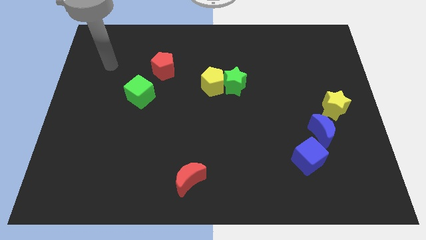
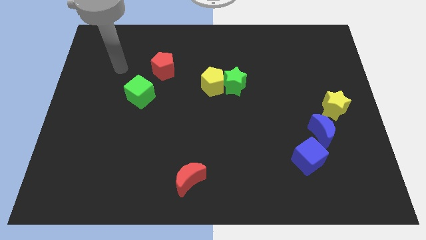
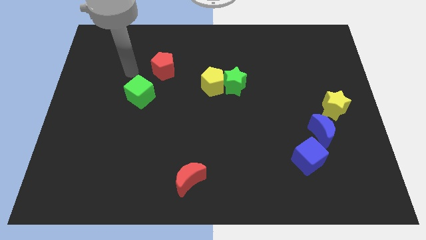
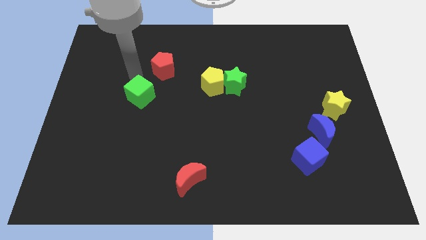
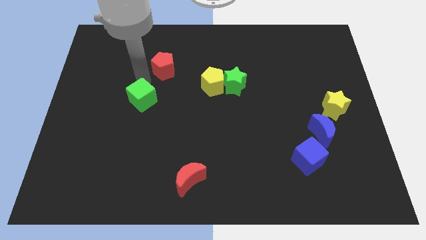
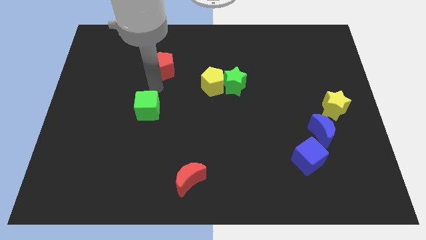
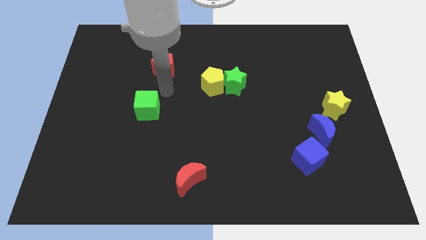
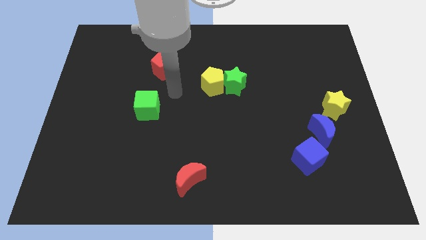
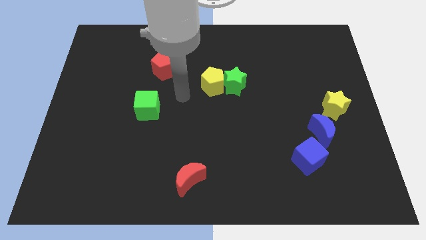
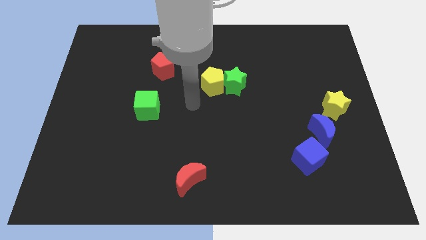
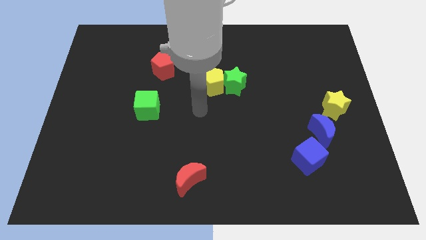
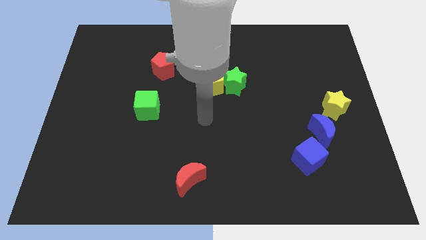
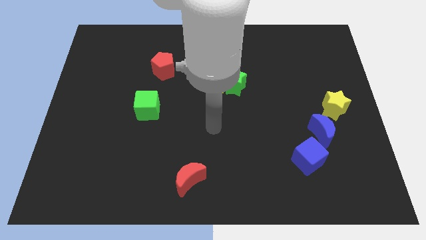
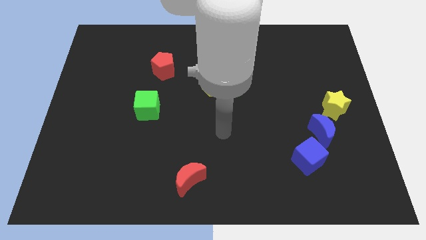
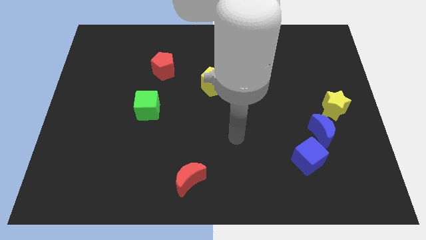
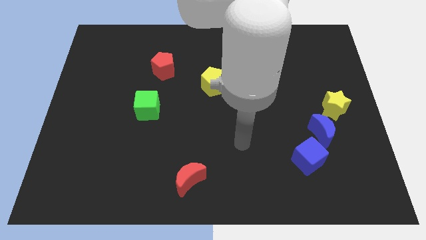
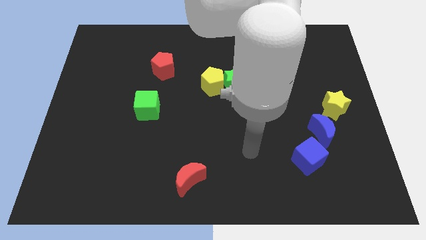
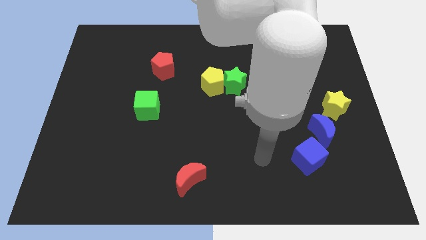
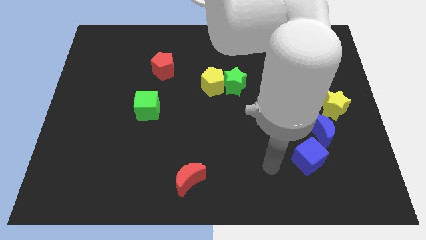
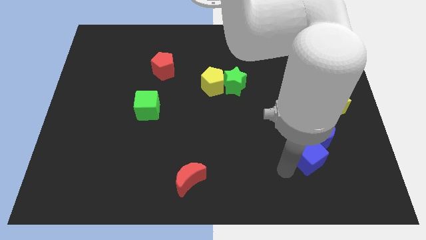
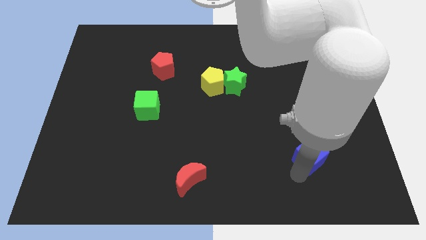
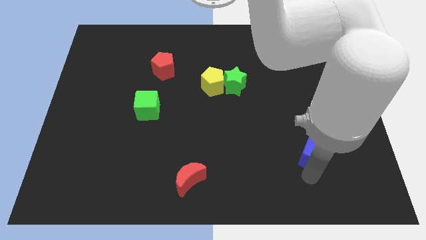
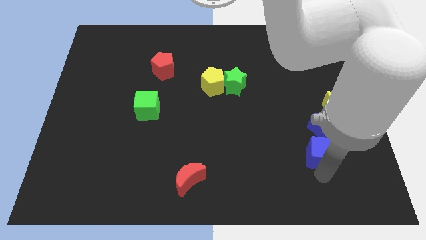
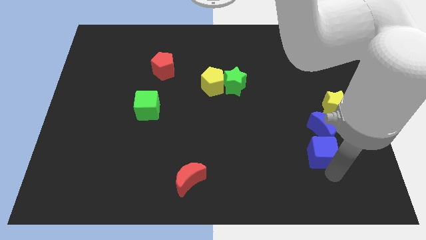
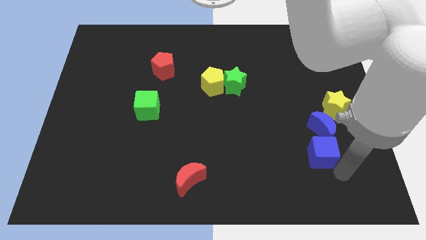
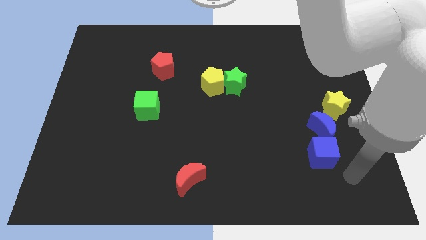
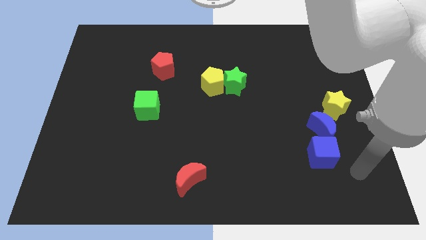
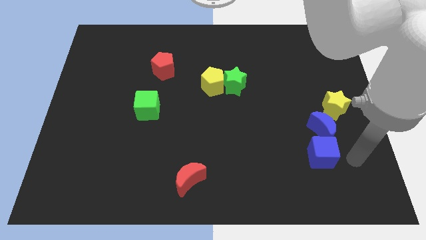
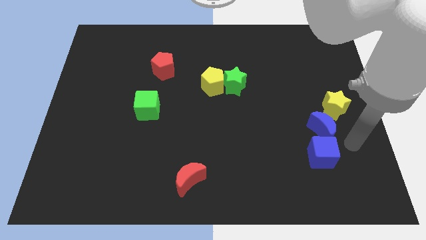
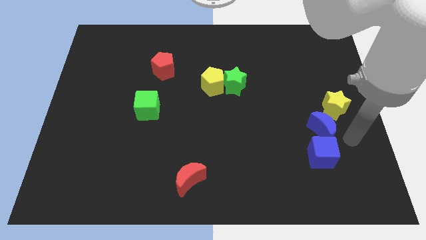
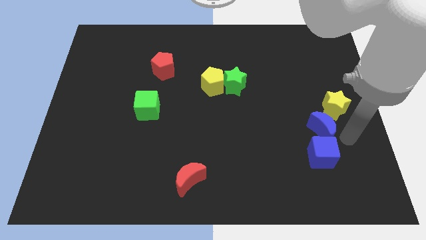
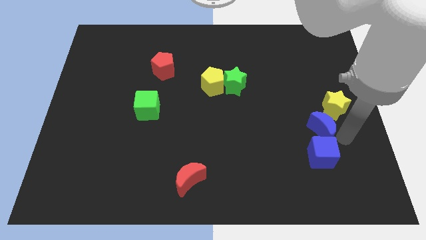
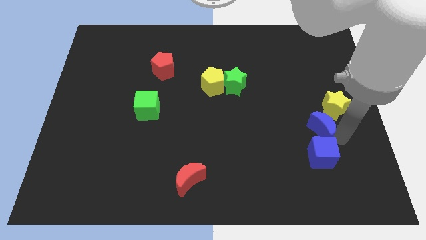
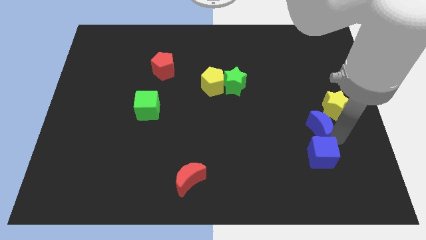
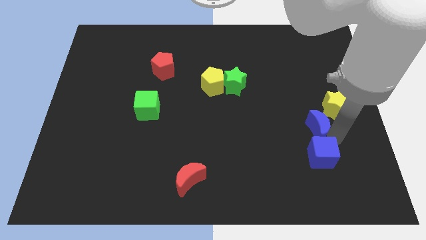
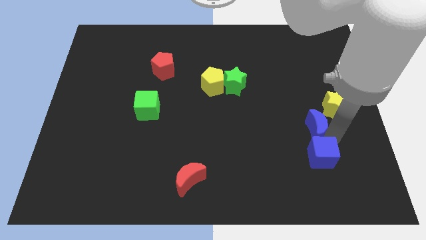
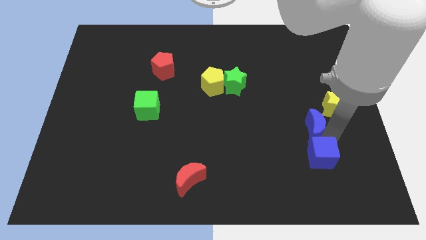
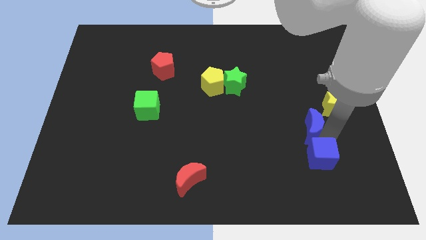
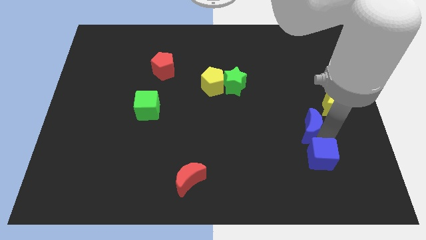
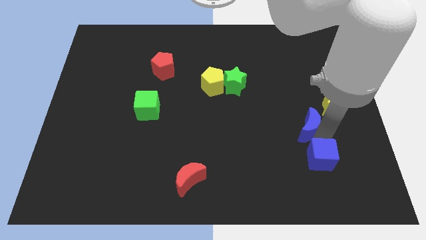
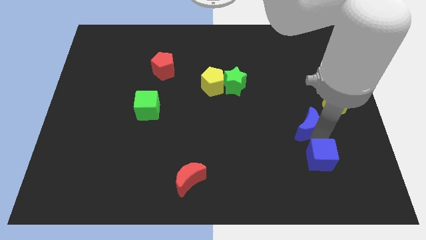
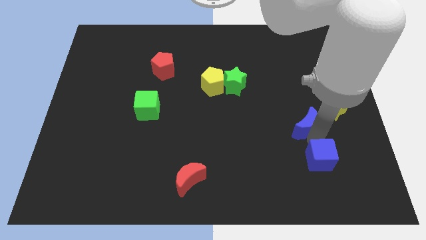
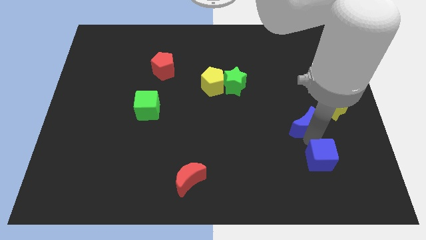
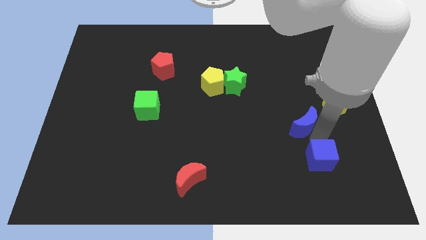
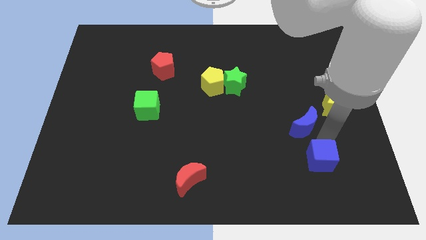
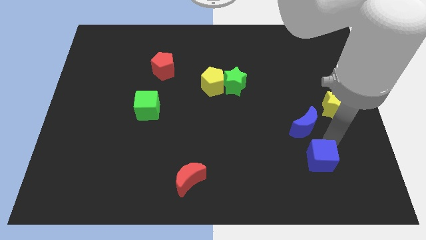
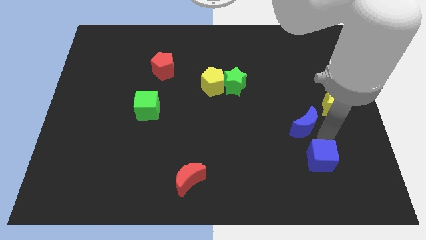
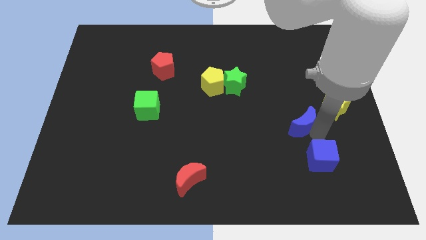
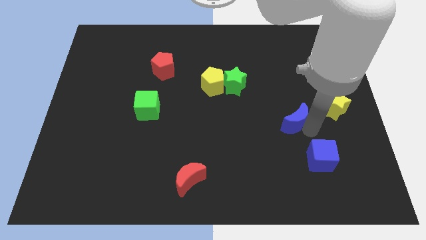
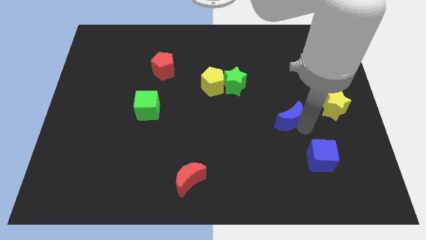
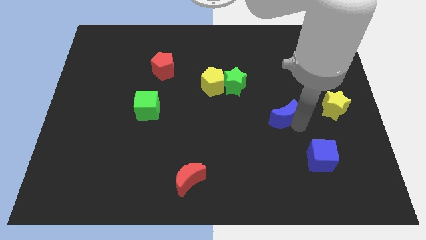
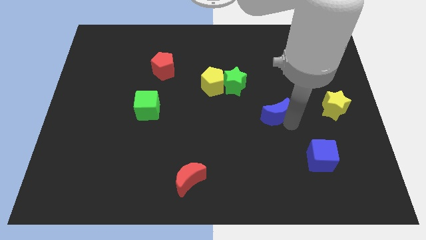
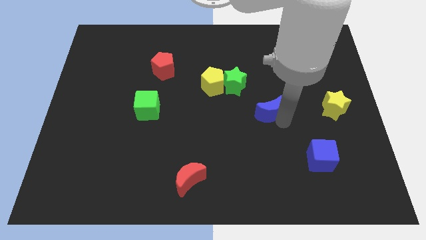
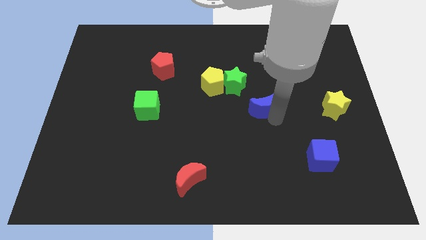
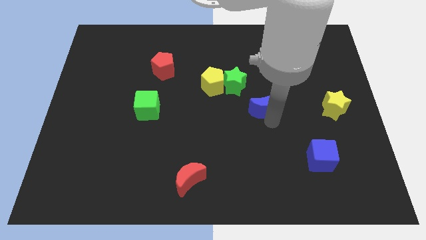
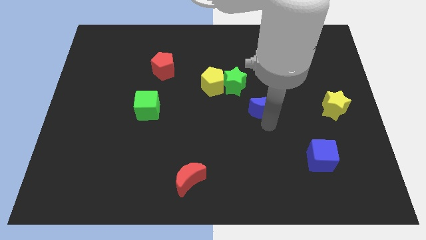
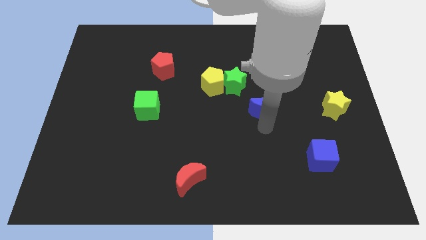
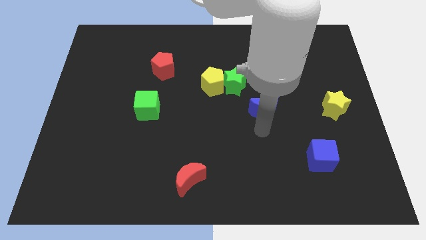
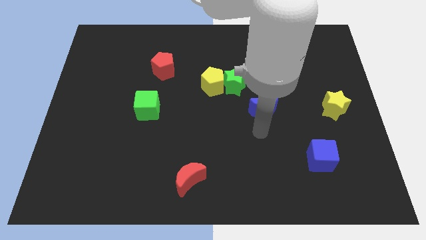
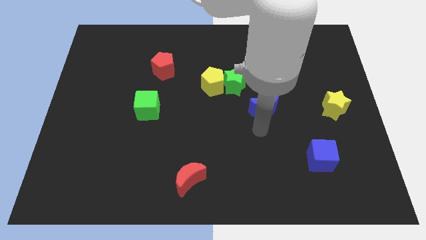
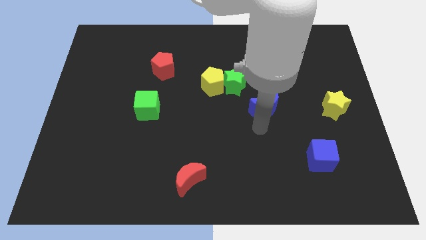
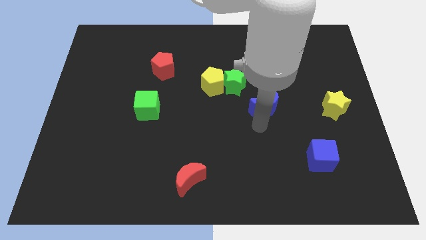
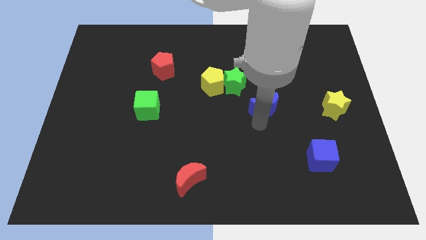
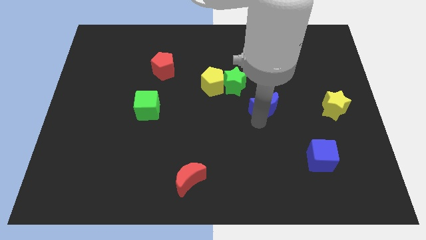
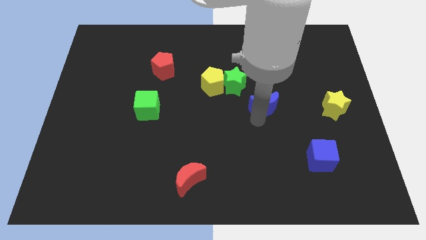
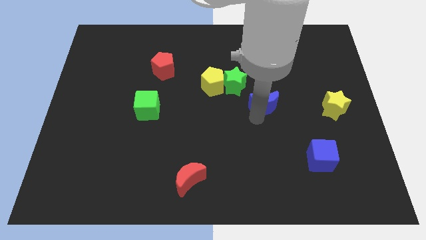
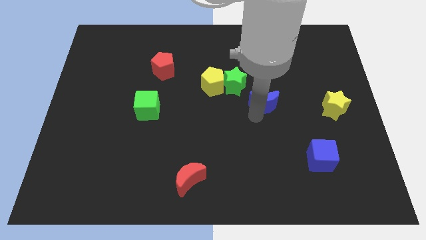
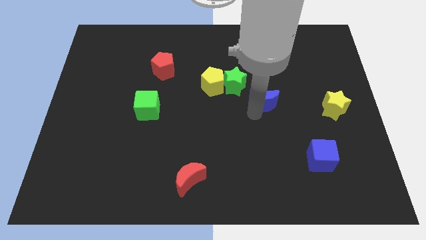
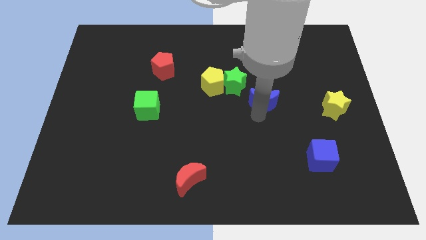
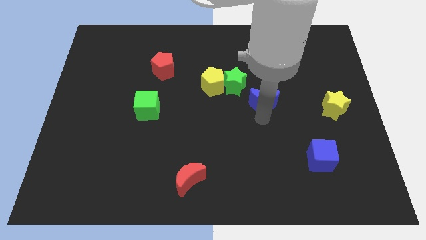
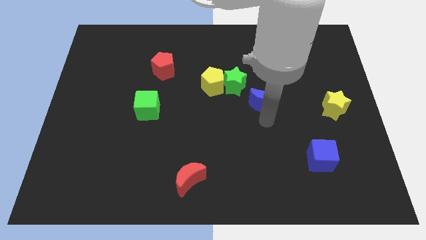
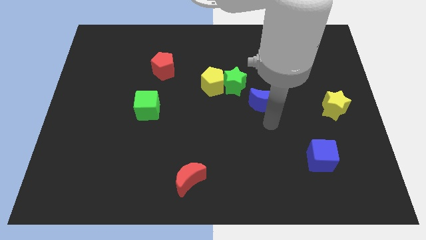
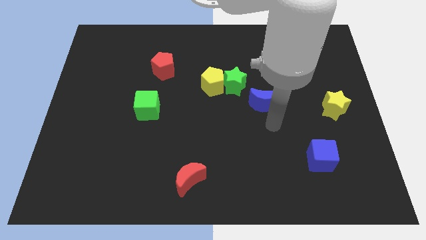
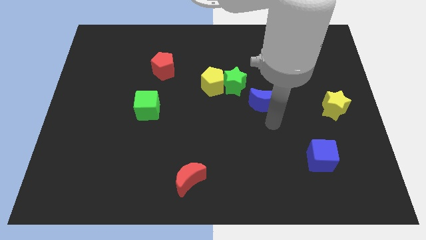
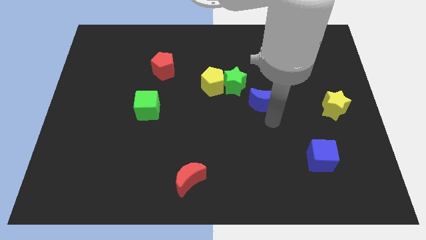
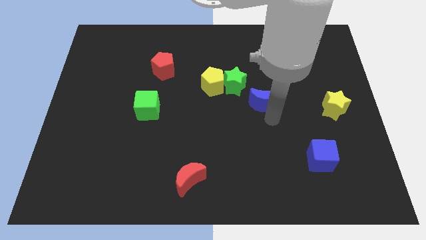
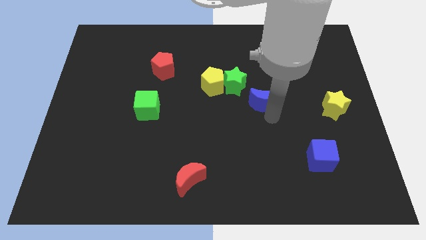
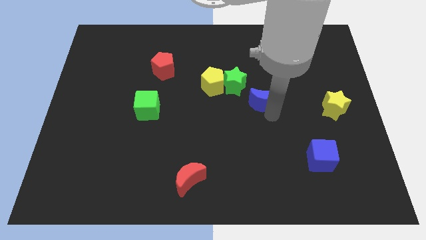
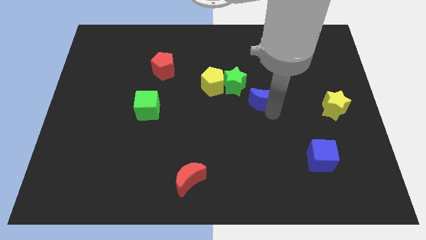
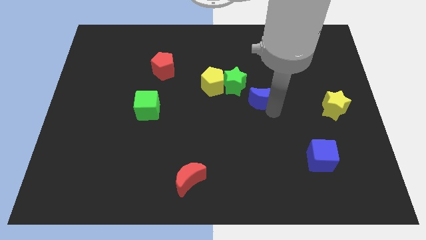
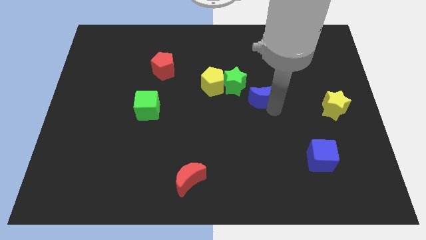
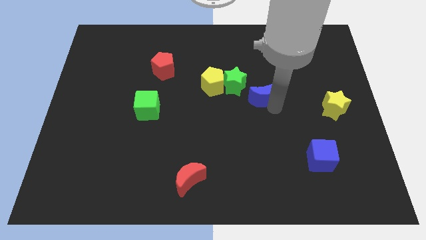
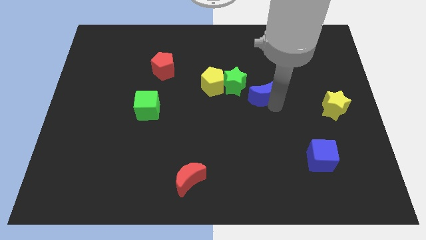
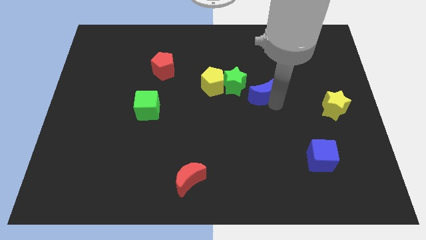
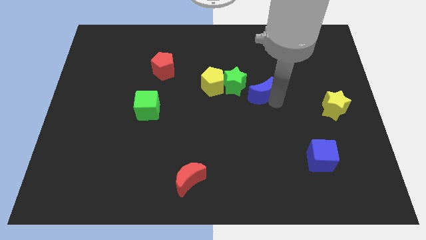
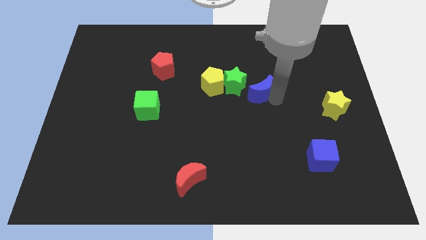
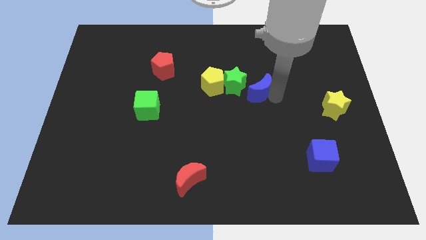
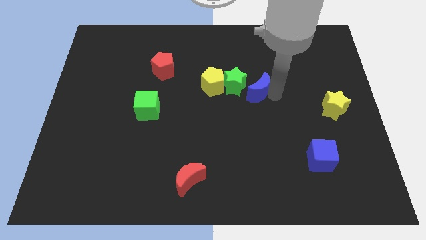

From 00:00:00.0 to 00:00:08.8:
push the blue moon next to the green star
